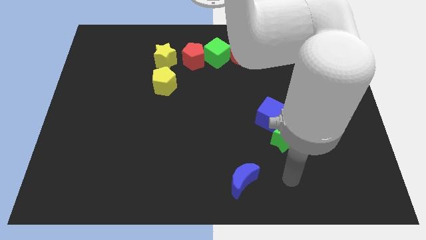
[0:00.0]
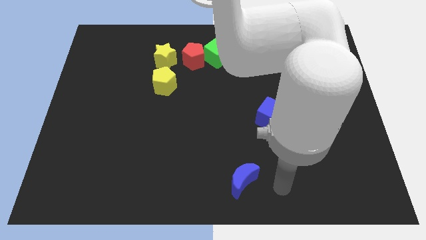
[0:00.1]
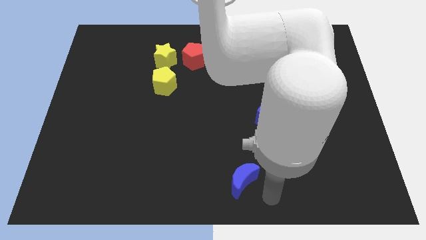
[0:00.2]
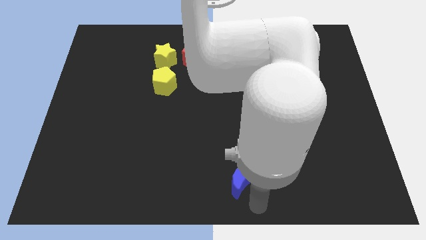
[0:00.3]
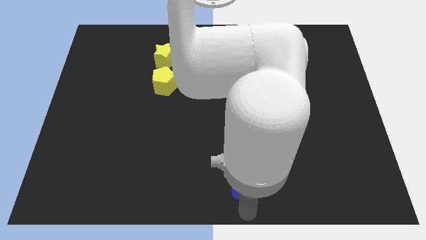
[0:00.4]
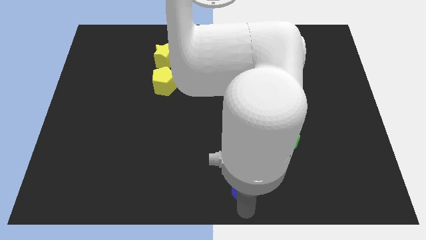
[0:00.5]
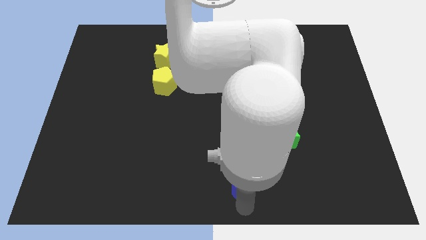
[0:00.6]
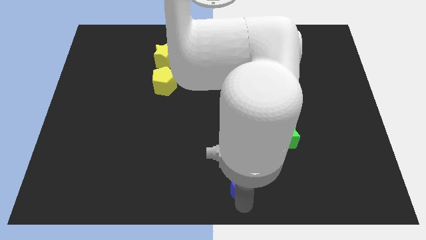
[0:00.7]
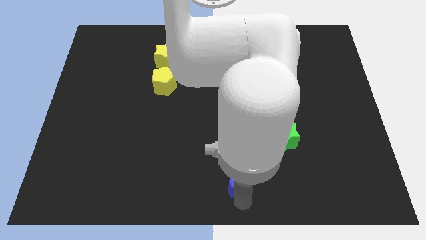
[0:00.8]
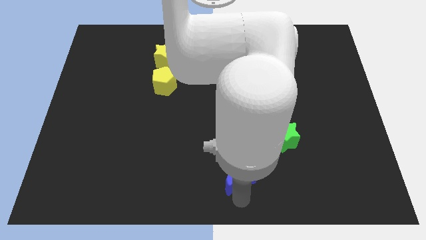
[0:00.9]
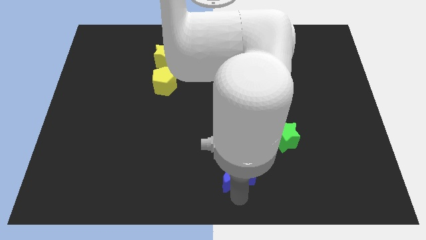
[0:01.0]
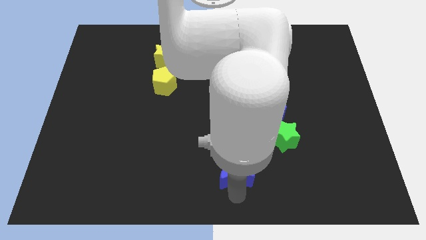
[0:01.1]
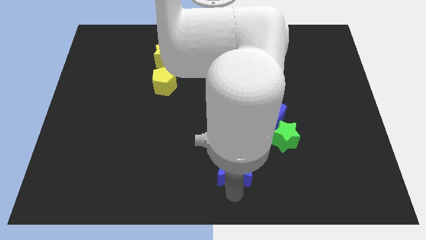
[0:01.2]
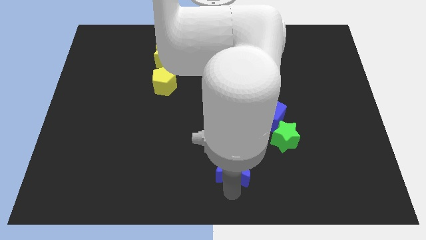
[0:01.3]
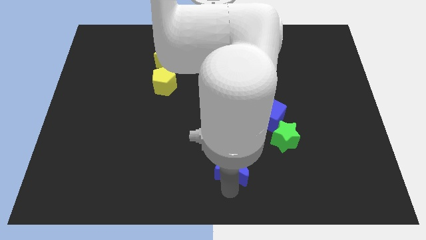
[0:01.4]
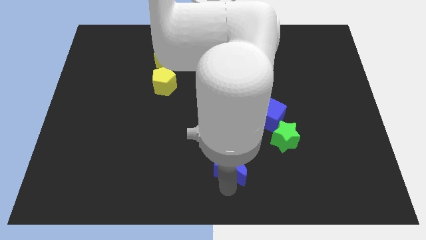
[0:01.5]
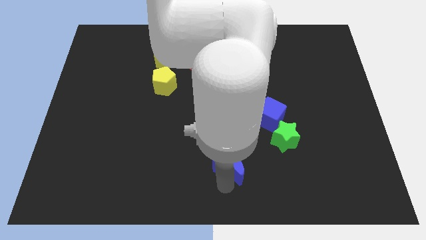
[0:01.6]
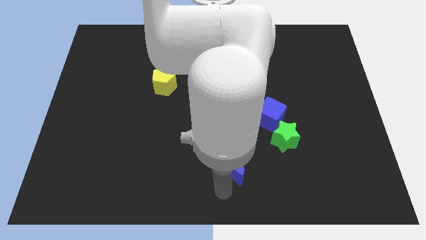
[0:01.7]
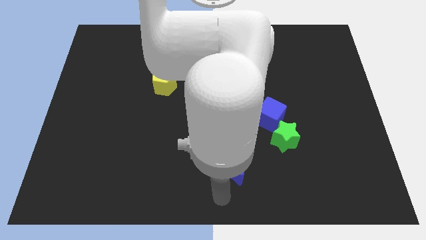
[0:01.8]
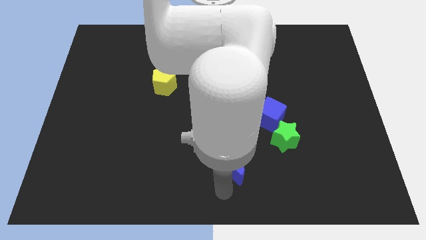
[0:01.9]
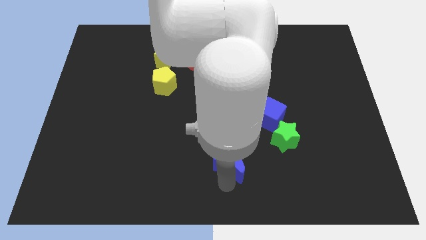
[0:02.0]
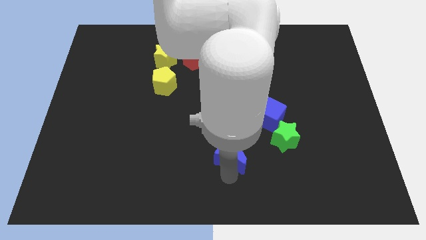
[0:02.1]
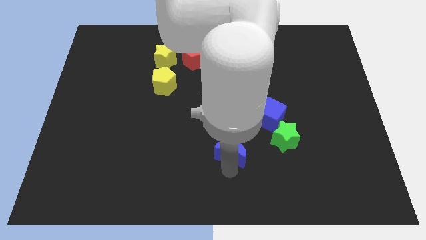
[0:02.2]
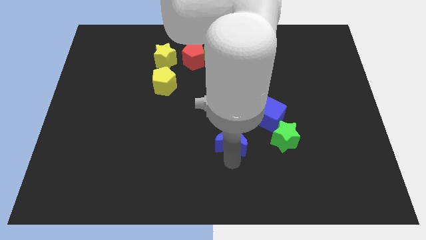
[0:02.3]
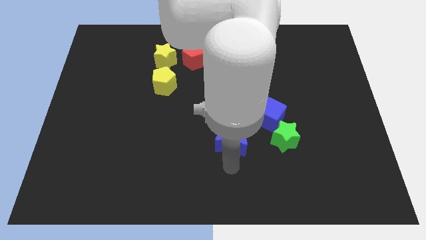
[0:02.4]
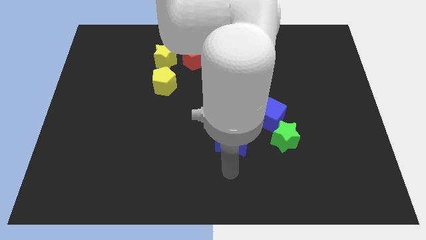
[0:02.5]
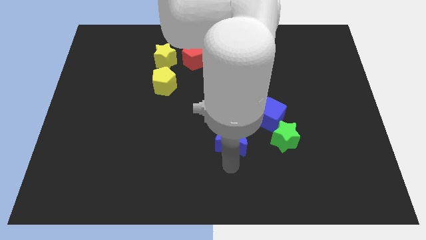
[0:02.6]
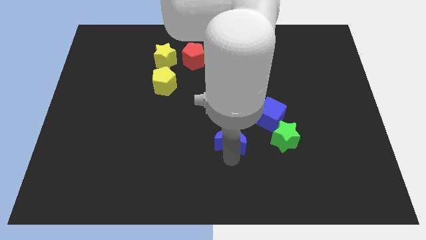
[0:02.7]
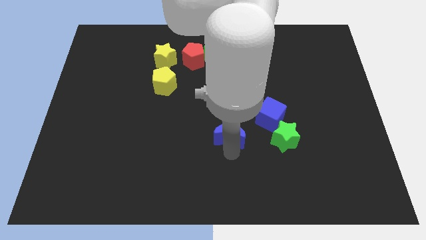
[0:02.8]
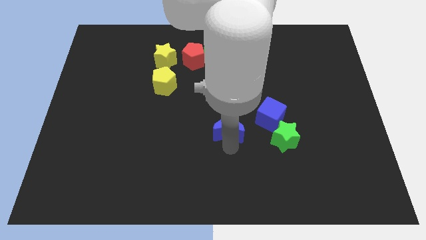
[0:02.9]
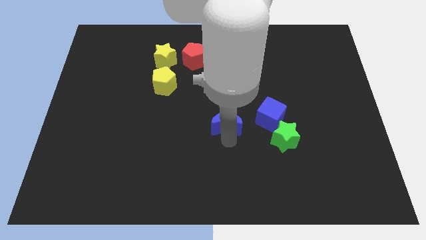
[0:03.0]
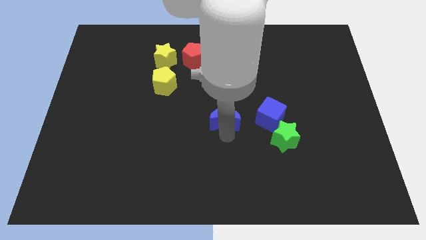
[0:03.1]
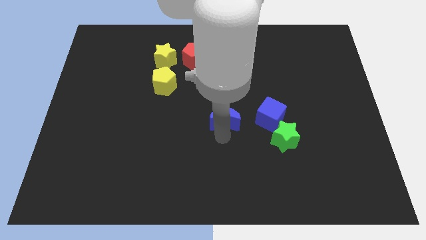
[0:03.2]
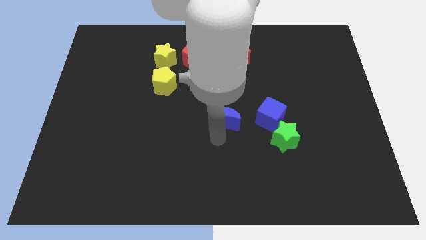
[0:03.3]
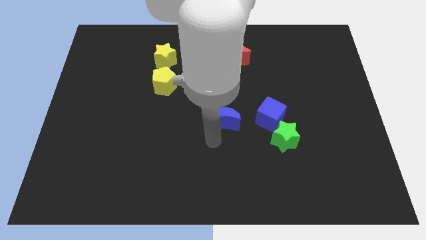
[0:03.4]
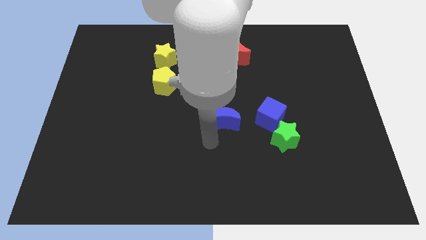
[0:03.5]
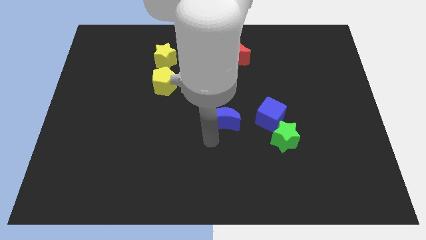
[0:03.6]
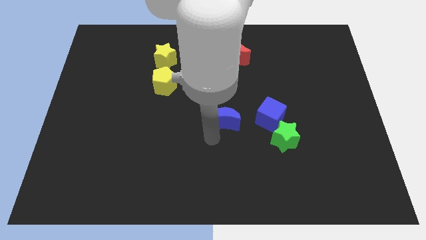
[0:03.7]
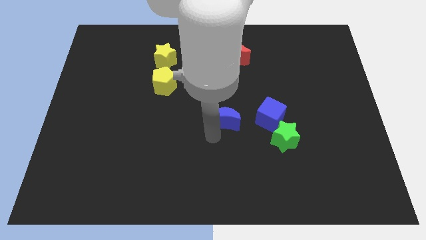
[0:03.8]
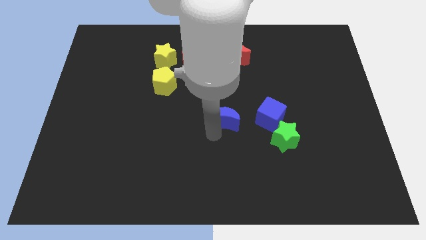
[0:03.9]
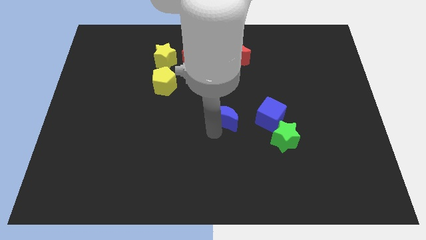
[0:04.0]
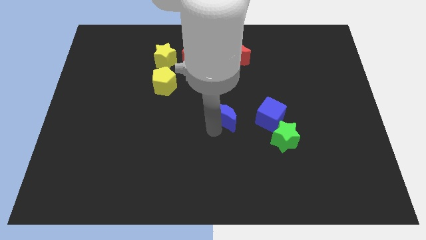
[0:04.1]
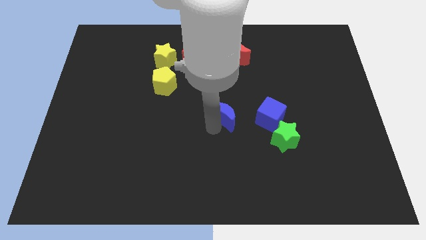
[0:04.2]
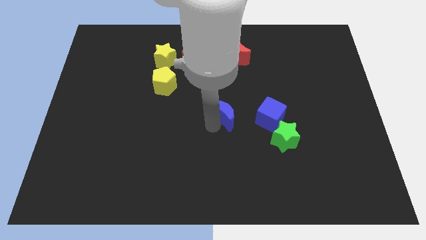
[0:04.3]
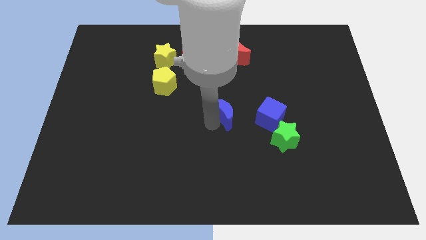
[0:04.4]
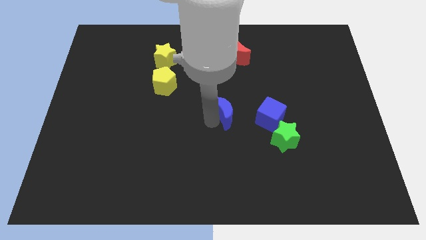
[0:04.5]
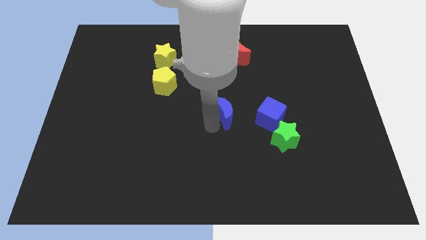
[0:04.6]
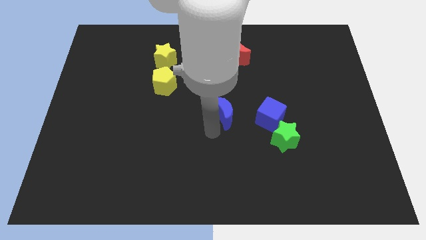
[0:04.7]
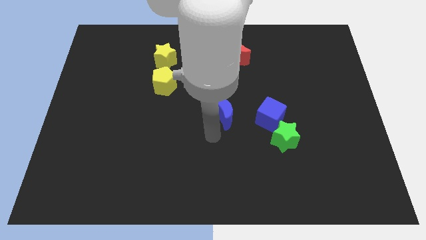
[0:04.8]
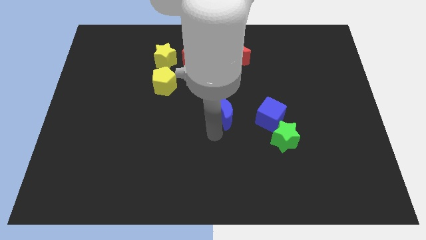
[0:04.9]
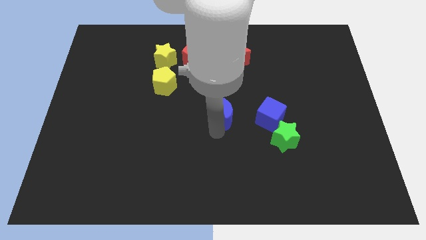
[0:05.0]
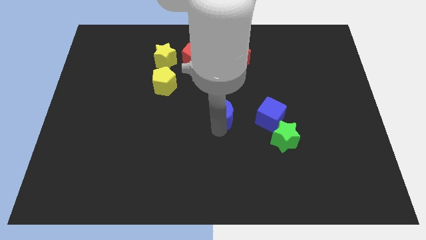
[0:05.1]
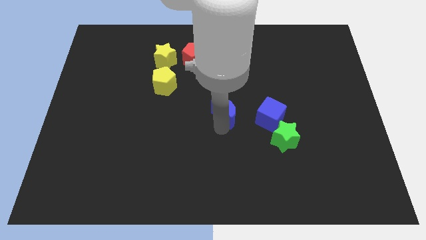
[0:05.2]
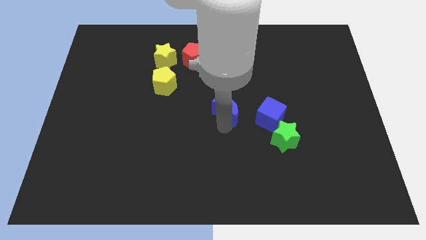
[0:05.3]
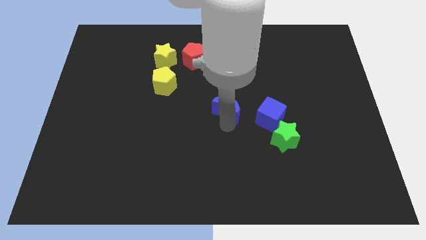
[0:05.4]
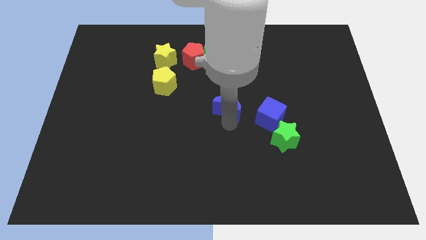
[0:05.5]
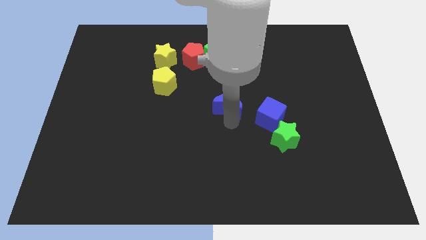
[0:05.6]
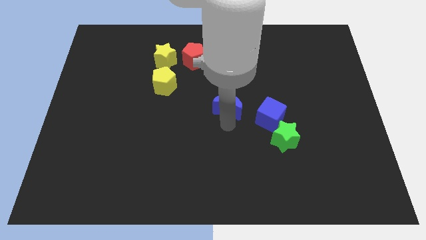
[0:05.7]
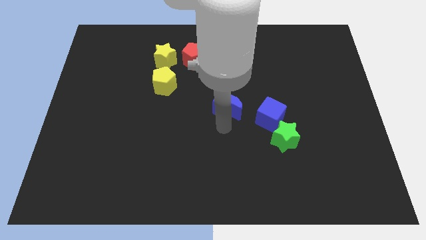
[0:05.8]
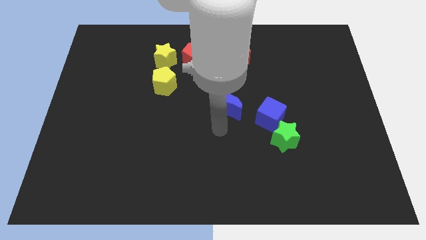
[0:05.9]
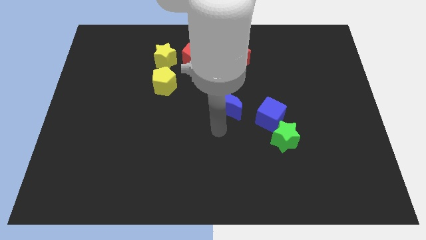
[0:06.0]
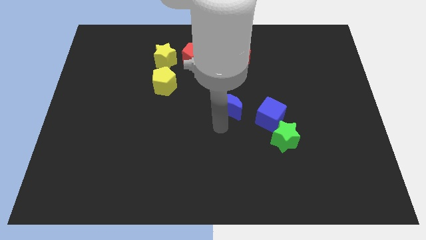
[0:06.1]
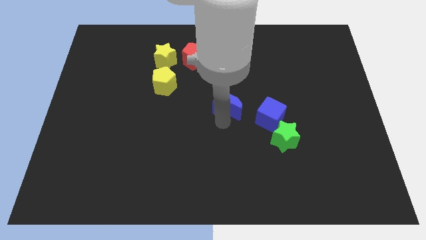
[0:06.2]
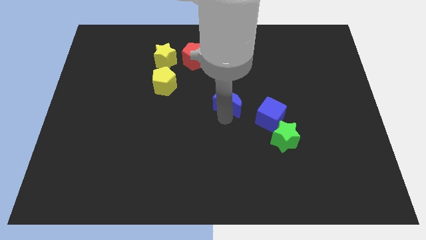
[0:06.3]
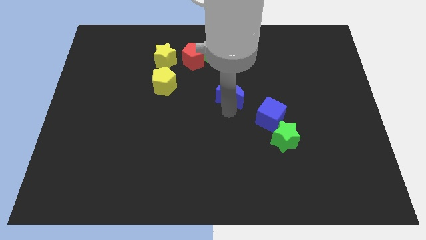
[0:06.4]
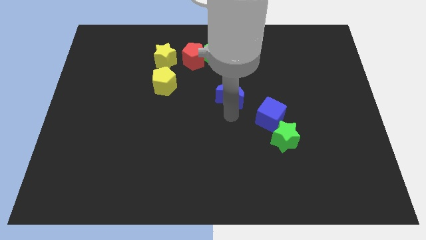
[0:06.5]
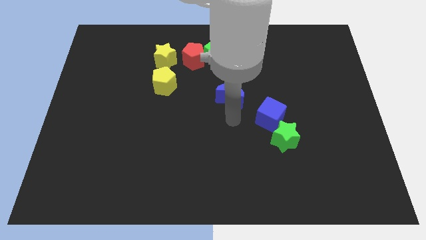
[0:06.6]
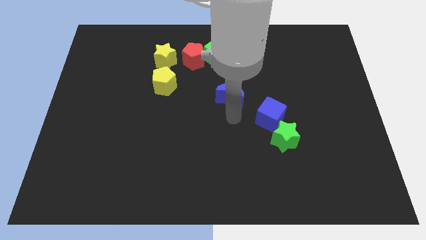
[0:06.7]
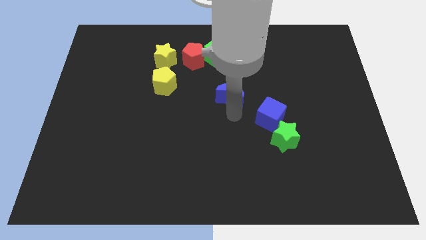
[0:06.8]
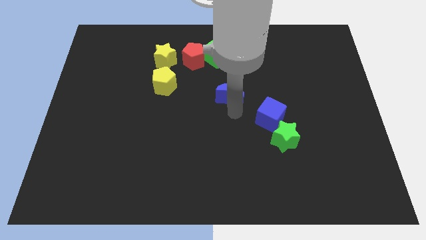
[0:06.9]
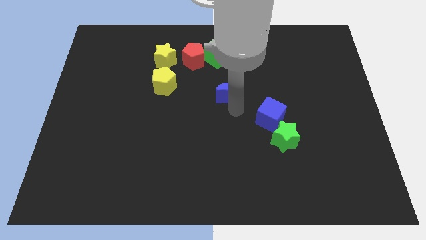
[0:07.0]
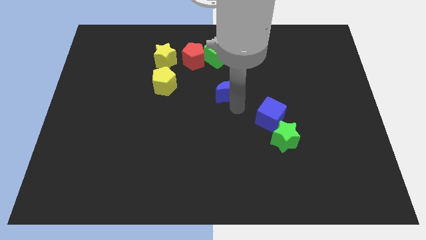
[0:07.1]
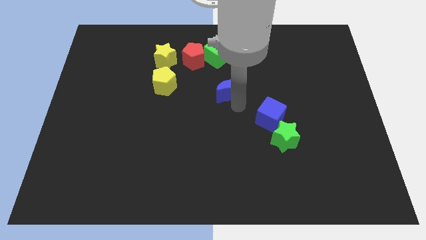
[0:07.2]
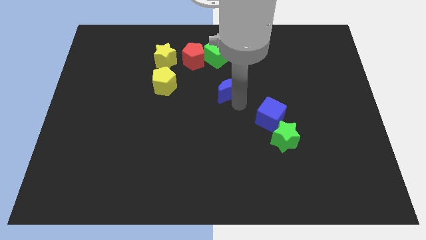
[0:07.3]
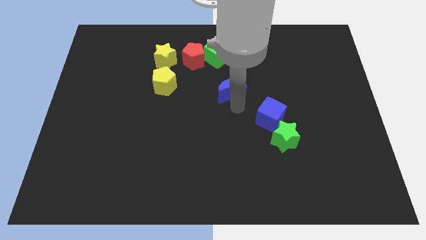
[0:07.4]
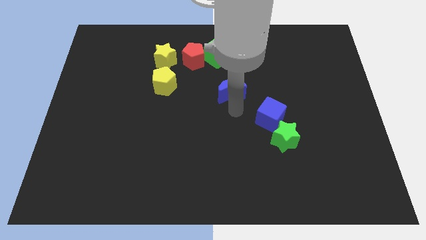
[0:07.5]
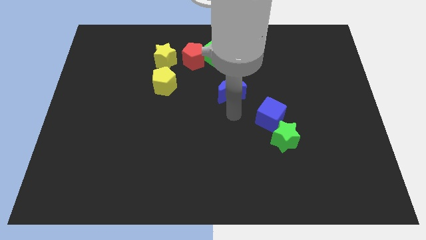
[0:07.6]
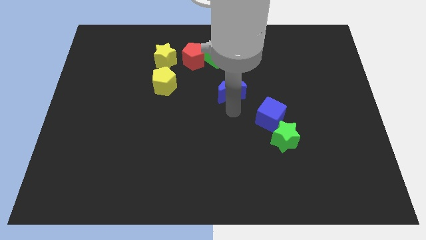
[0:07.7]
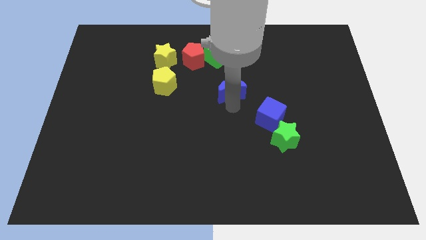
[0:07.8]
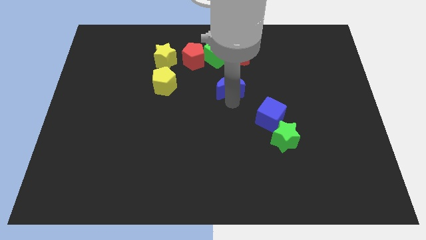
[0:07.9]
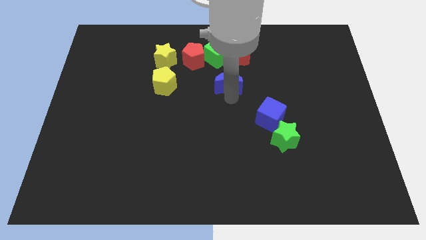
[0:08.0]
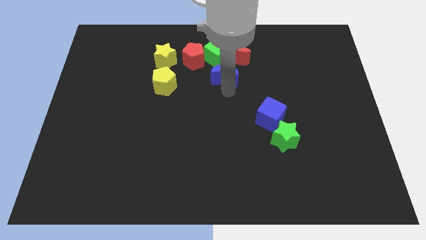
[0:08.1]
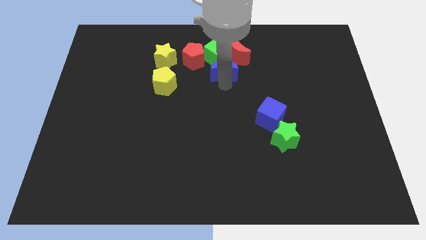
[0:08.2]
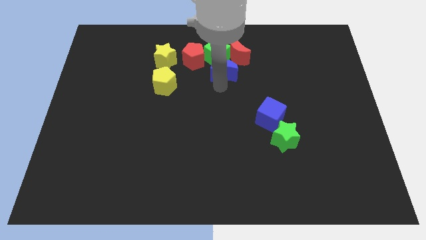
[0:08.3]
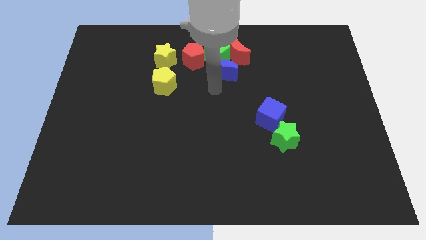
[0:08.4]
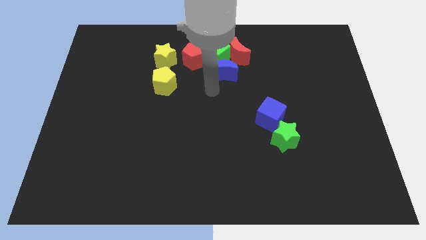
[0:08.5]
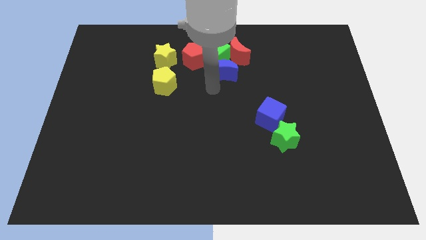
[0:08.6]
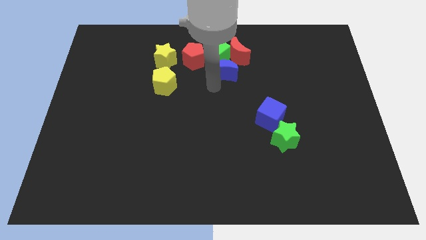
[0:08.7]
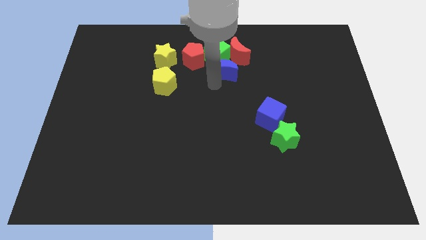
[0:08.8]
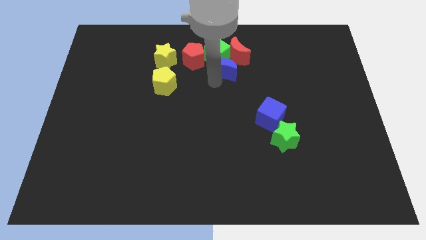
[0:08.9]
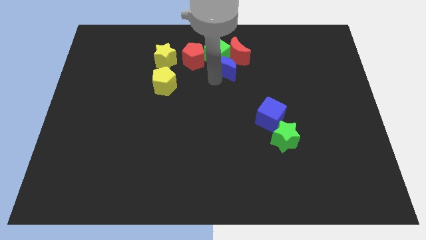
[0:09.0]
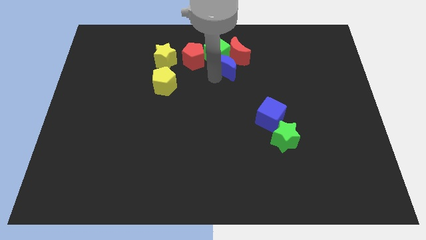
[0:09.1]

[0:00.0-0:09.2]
put the blue moon to the red moon
